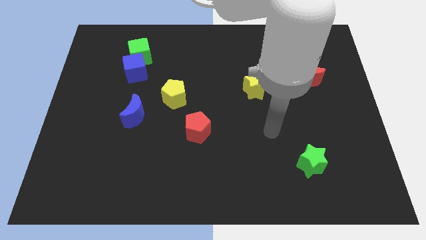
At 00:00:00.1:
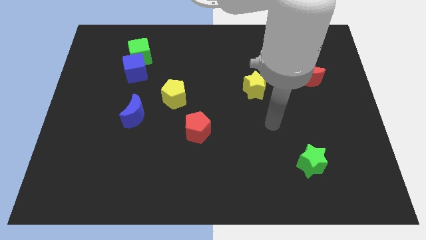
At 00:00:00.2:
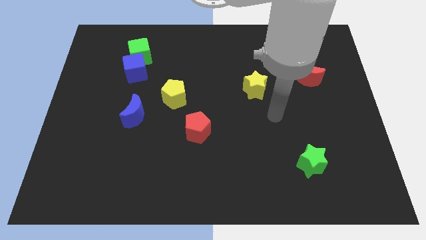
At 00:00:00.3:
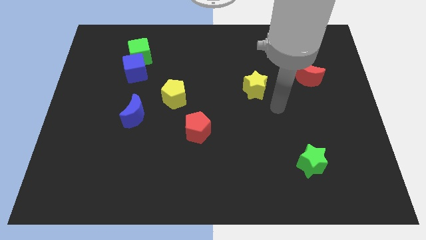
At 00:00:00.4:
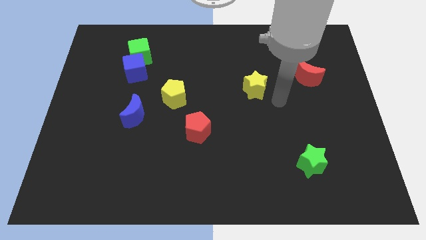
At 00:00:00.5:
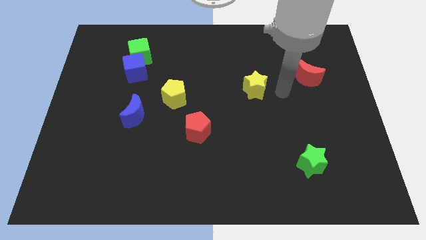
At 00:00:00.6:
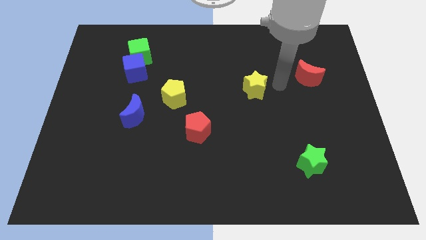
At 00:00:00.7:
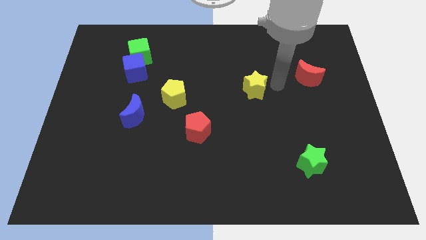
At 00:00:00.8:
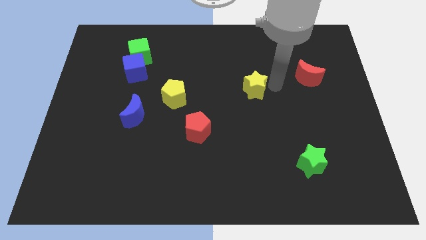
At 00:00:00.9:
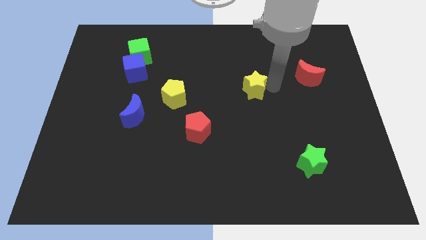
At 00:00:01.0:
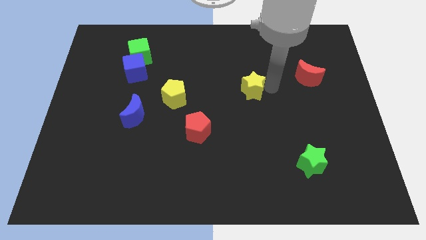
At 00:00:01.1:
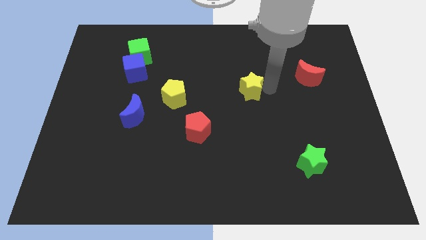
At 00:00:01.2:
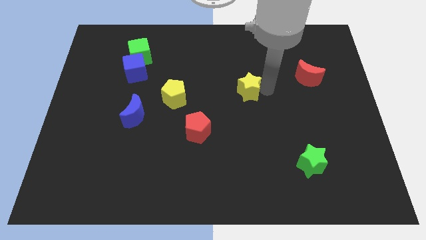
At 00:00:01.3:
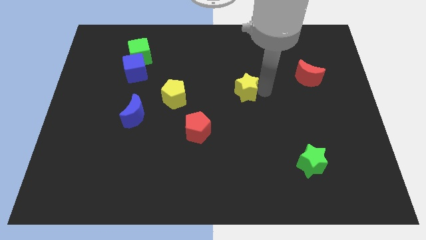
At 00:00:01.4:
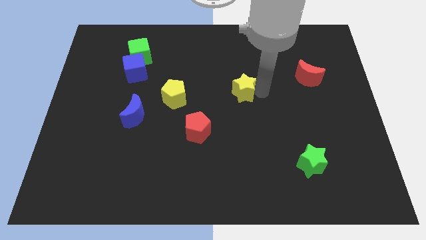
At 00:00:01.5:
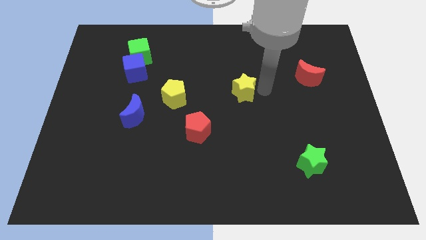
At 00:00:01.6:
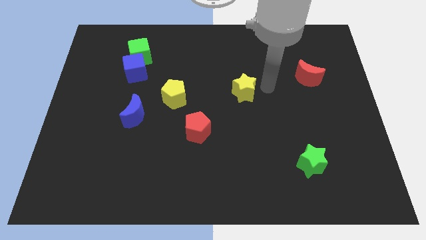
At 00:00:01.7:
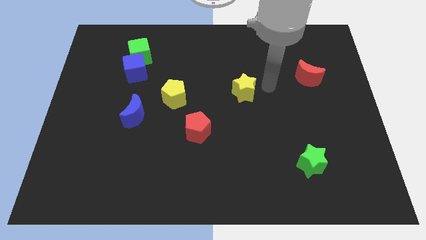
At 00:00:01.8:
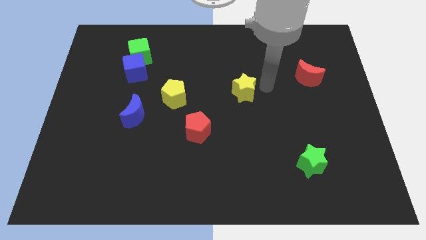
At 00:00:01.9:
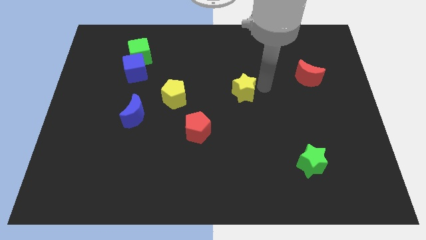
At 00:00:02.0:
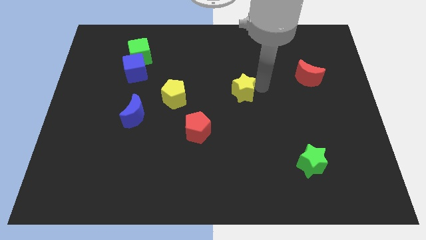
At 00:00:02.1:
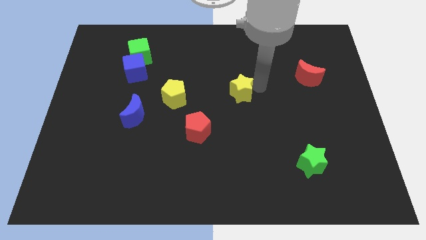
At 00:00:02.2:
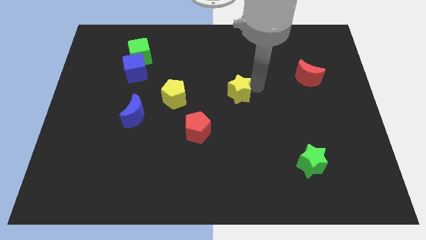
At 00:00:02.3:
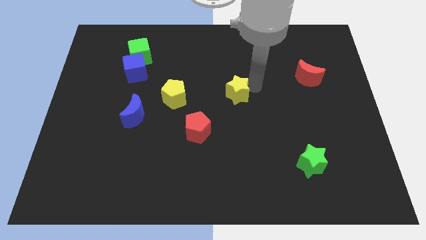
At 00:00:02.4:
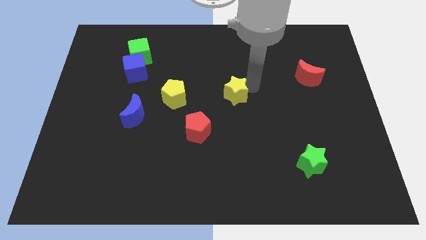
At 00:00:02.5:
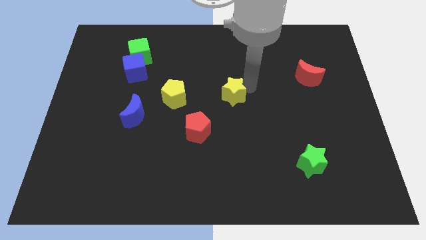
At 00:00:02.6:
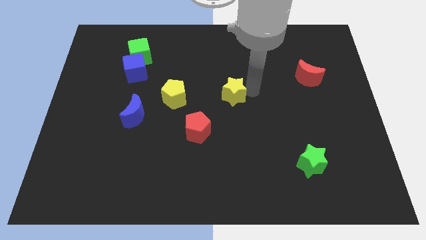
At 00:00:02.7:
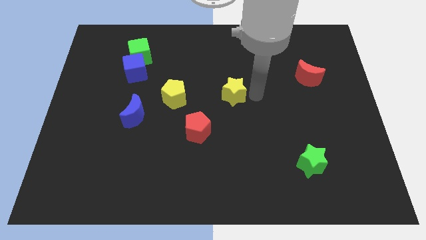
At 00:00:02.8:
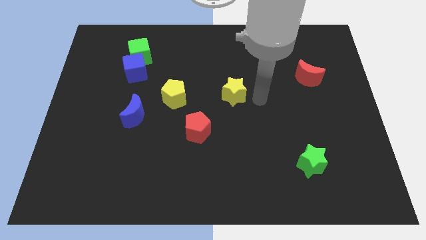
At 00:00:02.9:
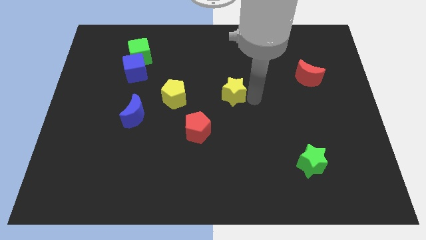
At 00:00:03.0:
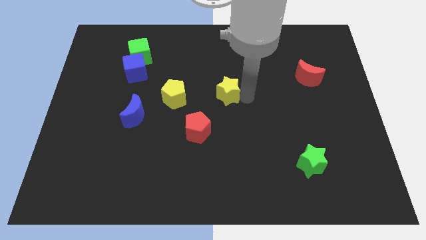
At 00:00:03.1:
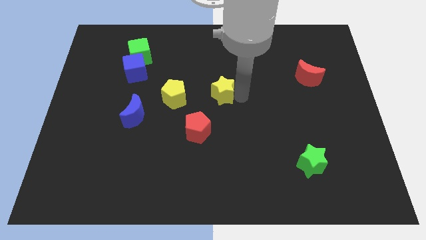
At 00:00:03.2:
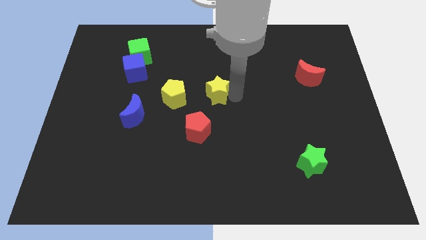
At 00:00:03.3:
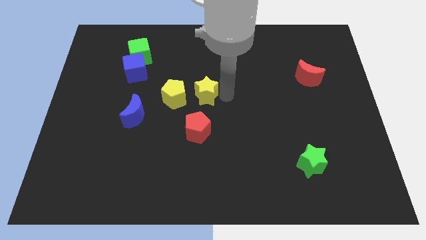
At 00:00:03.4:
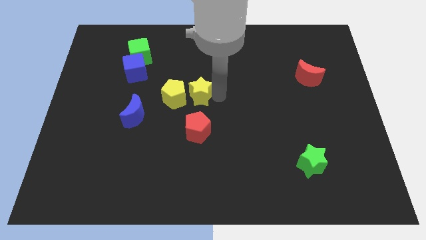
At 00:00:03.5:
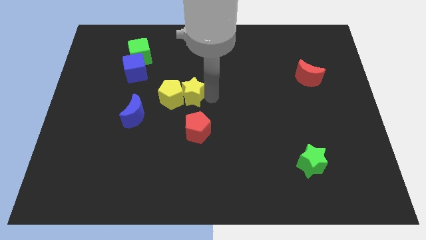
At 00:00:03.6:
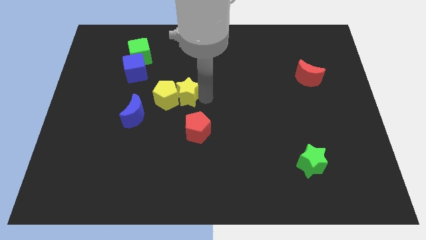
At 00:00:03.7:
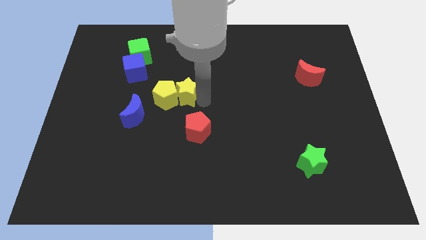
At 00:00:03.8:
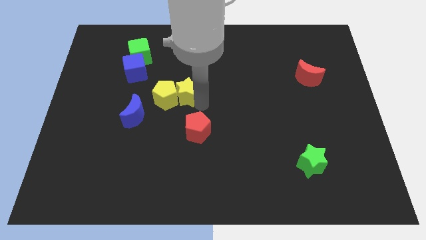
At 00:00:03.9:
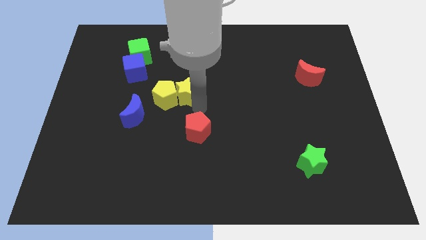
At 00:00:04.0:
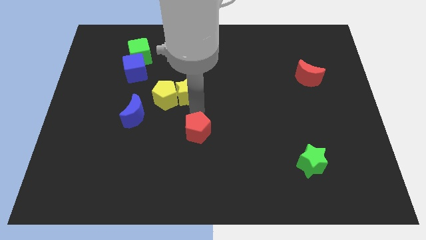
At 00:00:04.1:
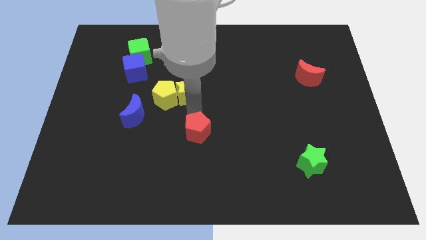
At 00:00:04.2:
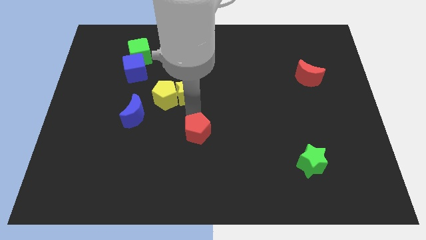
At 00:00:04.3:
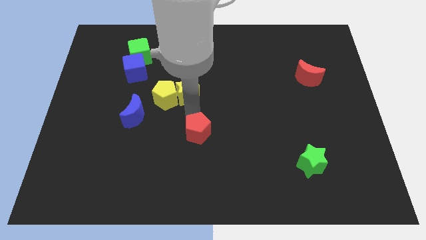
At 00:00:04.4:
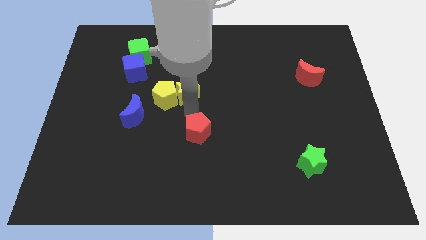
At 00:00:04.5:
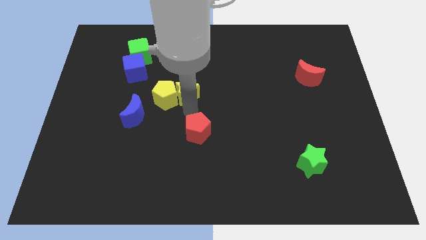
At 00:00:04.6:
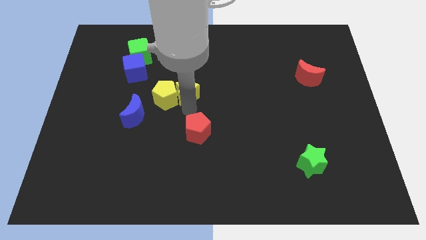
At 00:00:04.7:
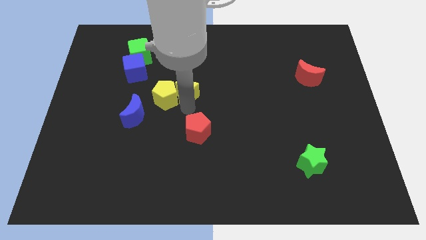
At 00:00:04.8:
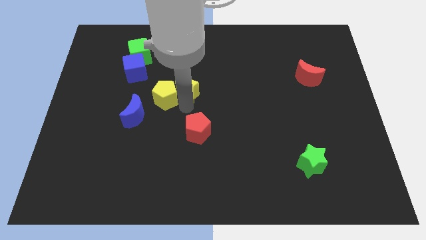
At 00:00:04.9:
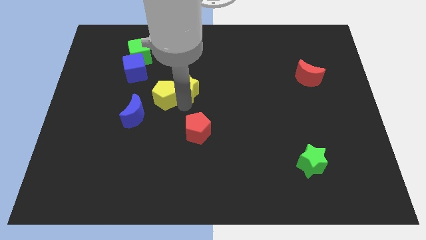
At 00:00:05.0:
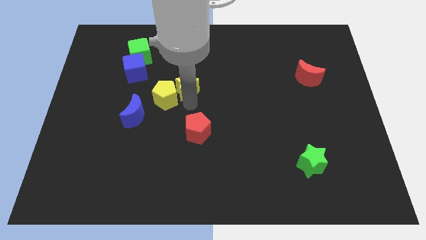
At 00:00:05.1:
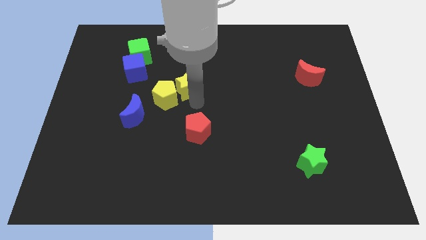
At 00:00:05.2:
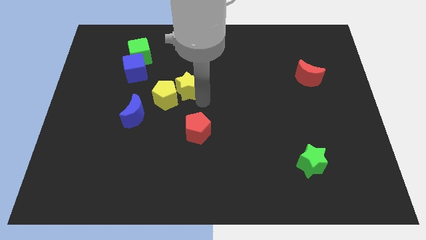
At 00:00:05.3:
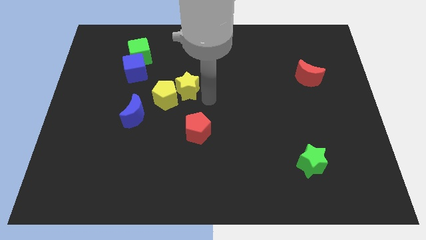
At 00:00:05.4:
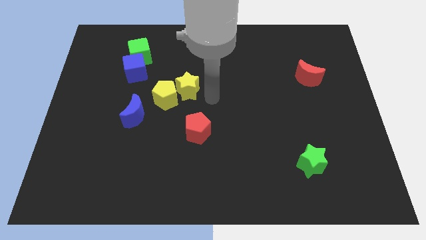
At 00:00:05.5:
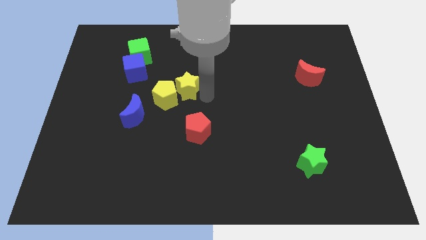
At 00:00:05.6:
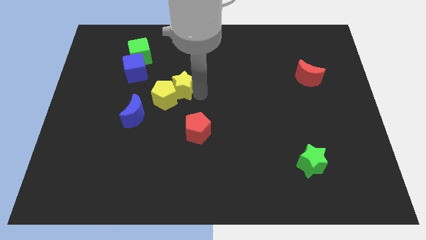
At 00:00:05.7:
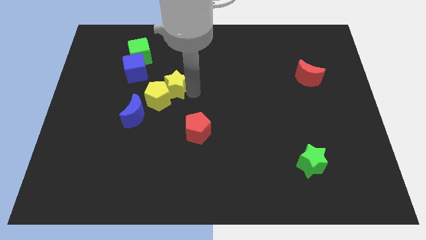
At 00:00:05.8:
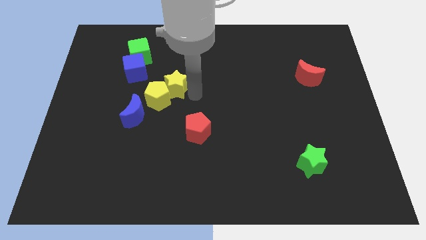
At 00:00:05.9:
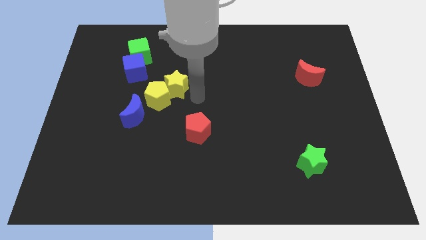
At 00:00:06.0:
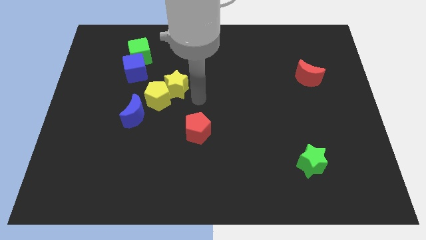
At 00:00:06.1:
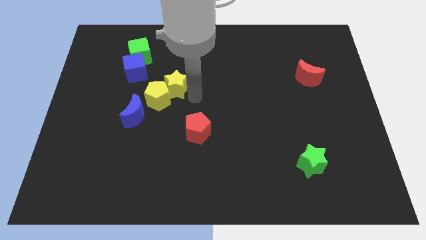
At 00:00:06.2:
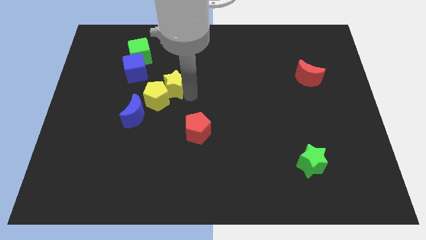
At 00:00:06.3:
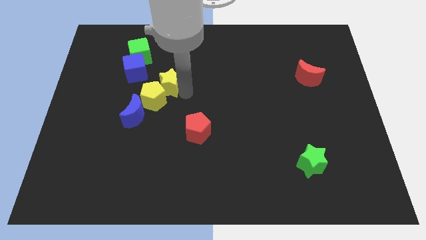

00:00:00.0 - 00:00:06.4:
move the yellow star left

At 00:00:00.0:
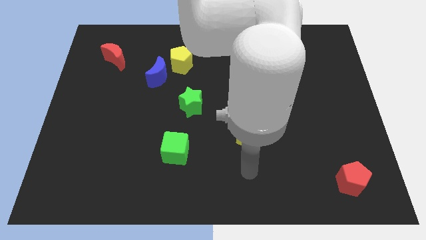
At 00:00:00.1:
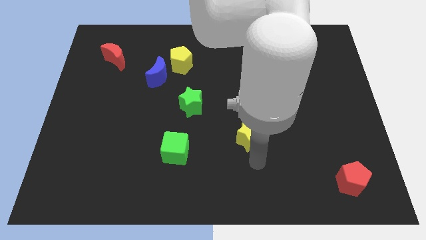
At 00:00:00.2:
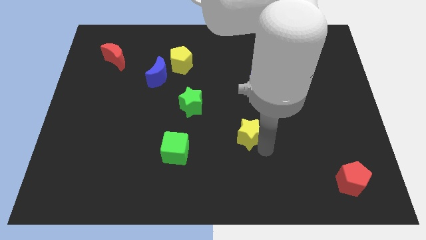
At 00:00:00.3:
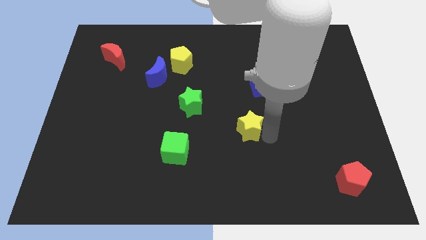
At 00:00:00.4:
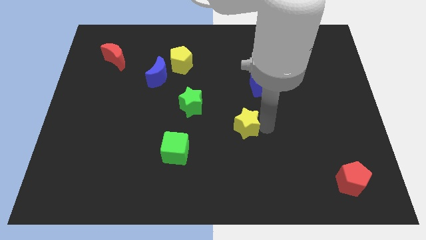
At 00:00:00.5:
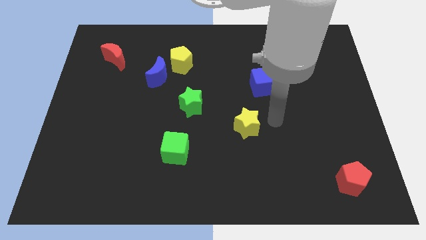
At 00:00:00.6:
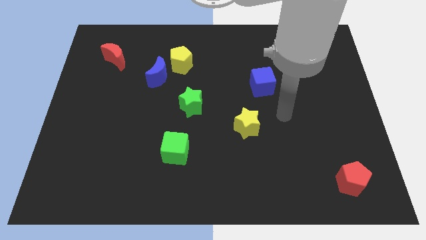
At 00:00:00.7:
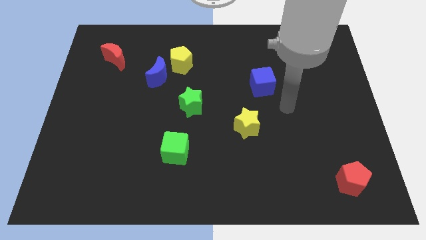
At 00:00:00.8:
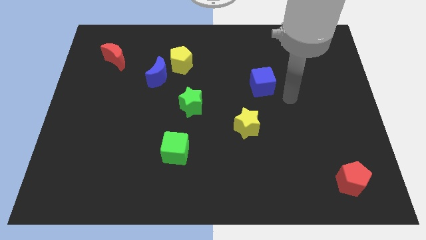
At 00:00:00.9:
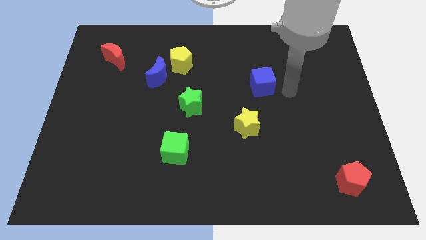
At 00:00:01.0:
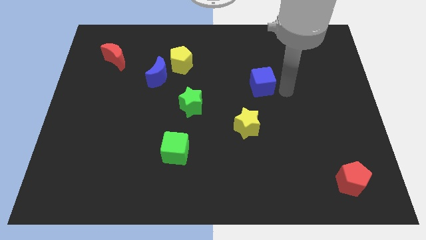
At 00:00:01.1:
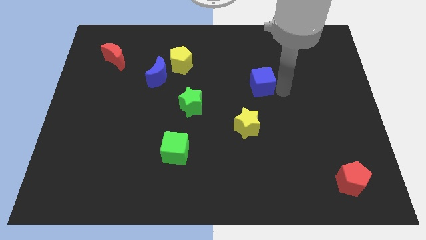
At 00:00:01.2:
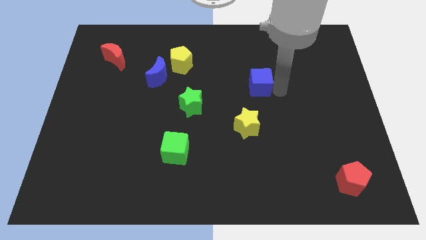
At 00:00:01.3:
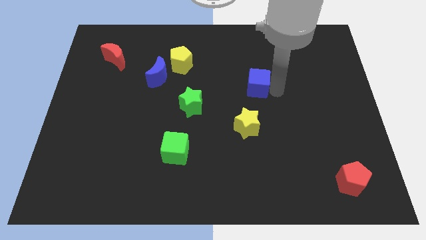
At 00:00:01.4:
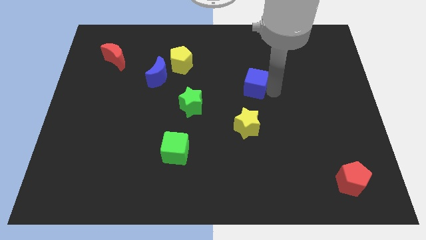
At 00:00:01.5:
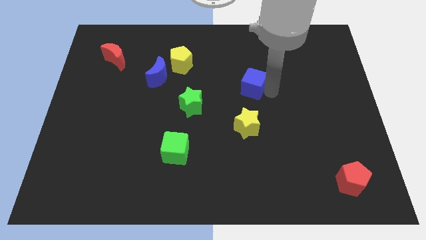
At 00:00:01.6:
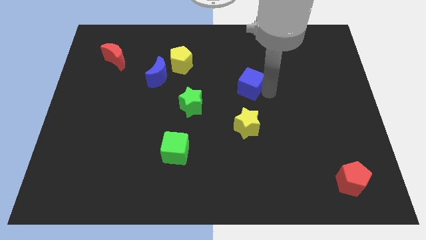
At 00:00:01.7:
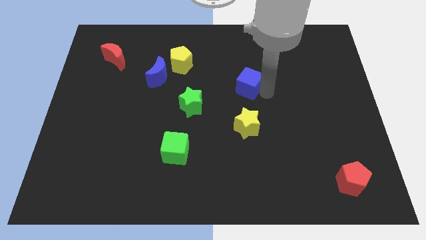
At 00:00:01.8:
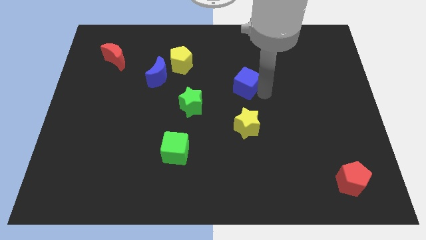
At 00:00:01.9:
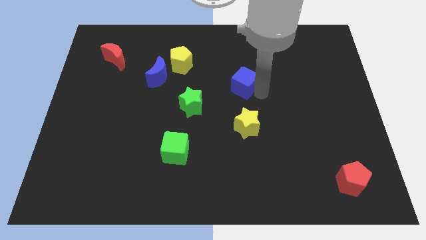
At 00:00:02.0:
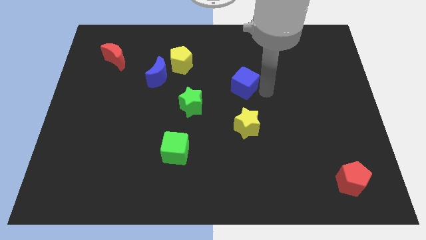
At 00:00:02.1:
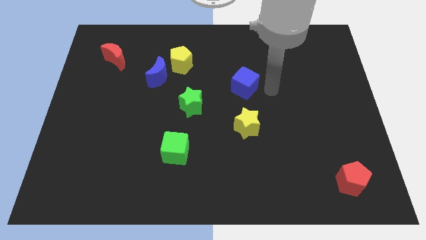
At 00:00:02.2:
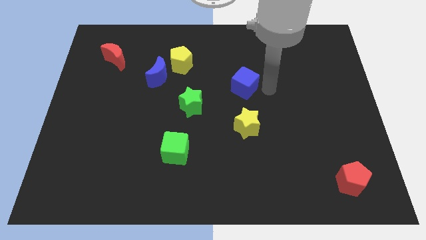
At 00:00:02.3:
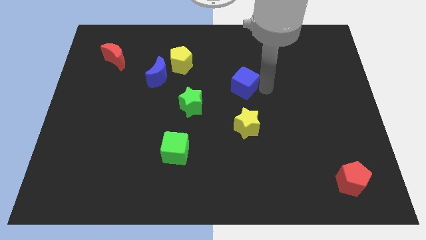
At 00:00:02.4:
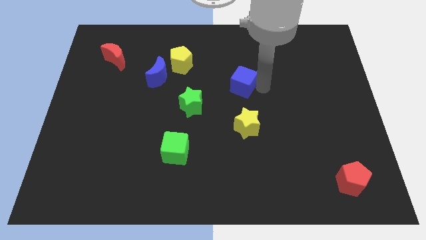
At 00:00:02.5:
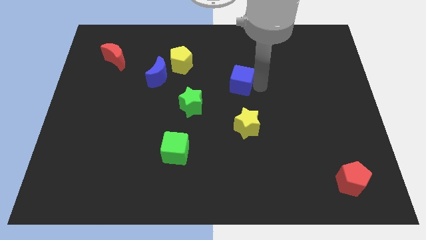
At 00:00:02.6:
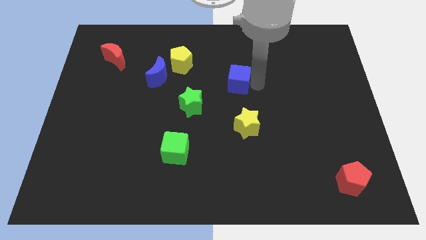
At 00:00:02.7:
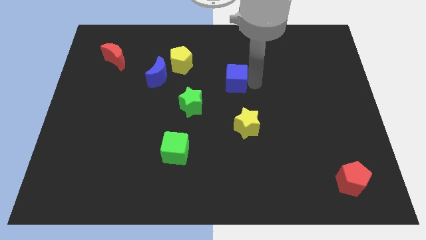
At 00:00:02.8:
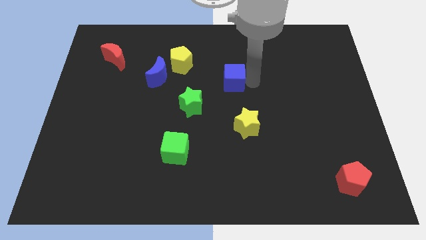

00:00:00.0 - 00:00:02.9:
push the blue cube left a bit
